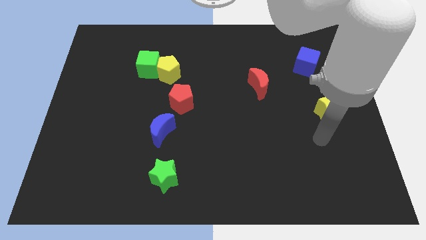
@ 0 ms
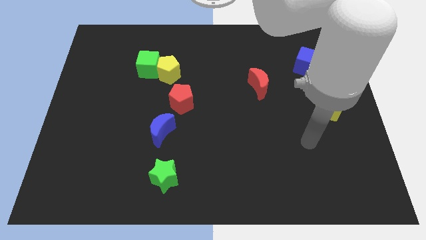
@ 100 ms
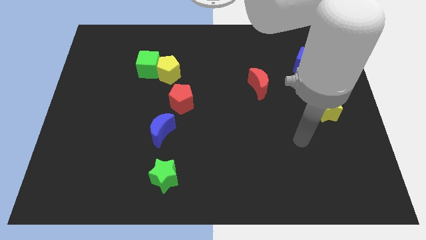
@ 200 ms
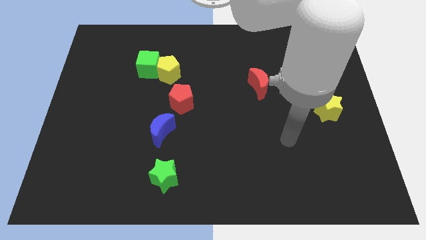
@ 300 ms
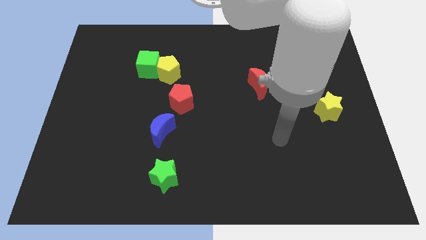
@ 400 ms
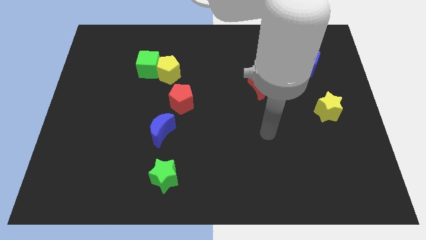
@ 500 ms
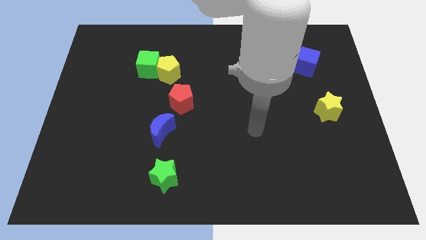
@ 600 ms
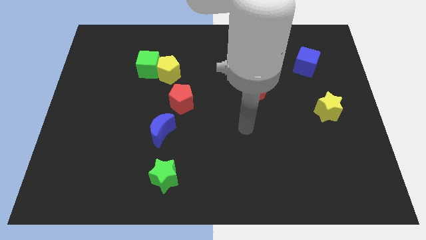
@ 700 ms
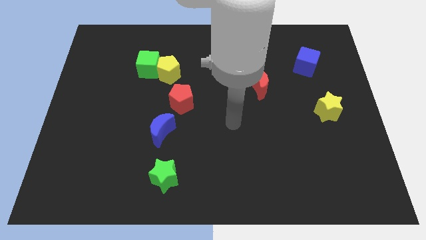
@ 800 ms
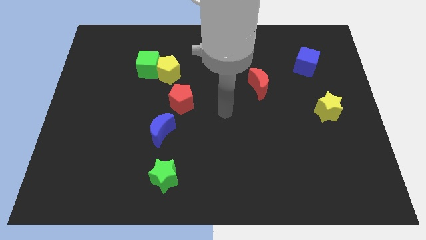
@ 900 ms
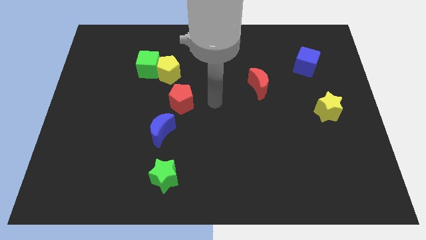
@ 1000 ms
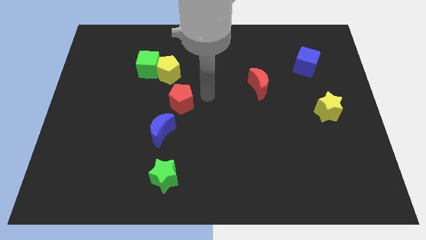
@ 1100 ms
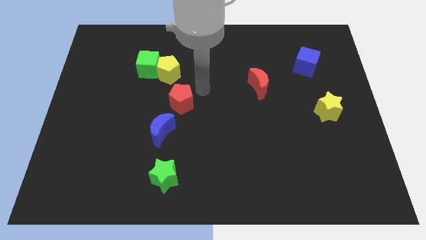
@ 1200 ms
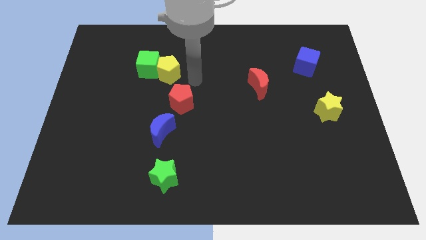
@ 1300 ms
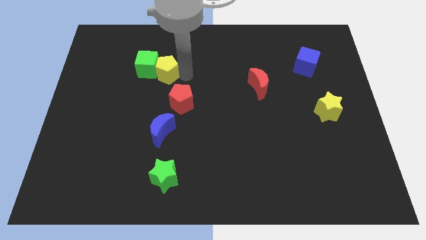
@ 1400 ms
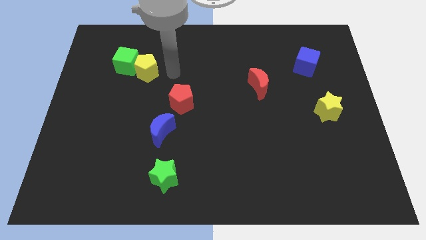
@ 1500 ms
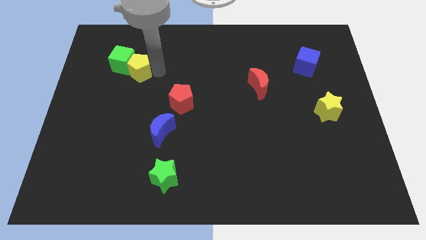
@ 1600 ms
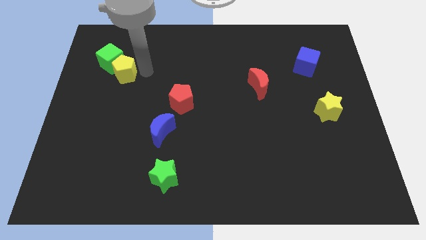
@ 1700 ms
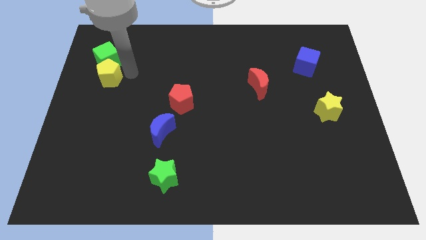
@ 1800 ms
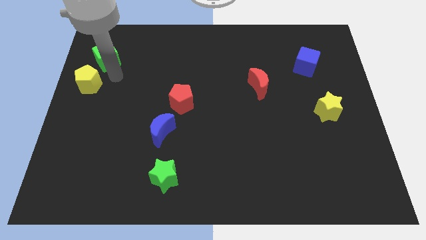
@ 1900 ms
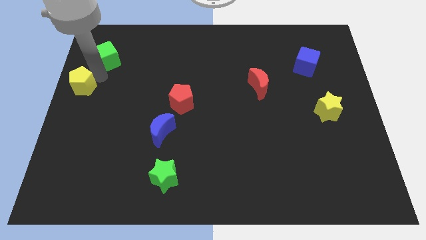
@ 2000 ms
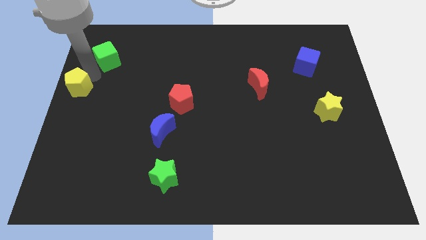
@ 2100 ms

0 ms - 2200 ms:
pull the green cube apart from the yellow pentagon

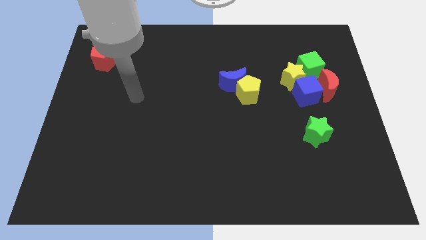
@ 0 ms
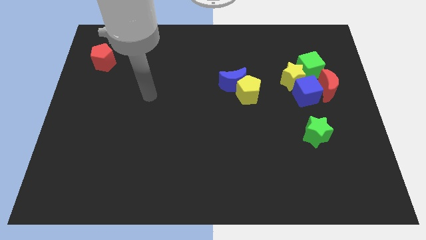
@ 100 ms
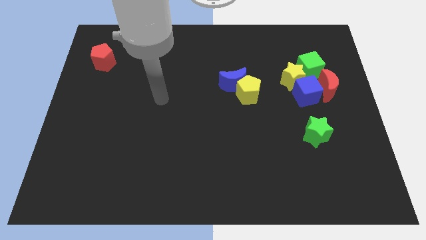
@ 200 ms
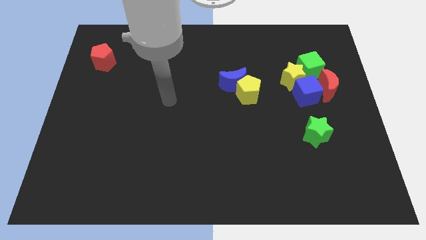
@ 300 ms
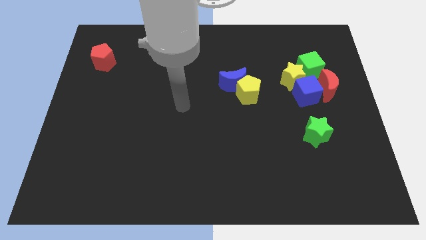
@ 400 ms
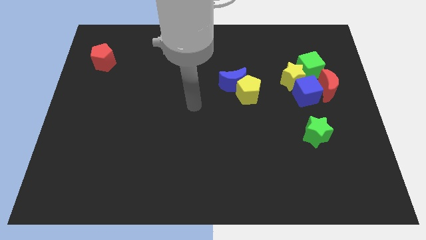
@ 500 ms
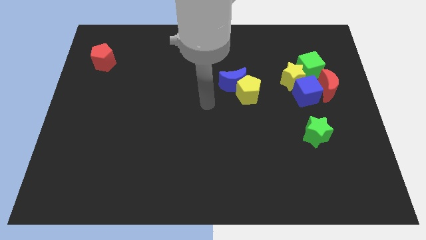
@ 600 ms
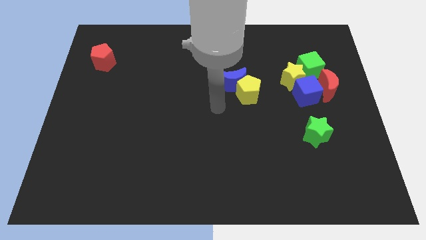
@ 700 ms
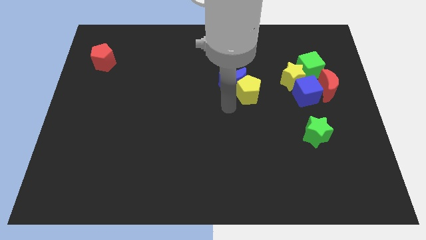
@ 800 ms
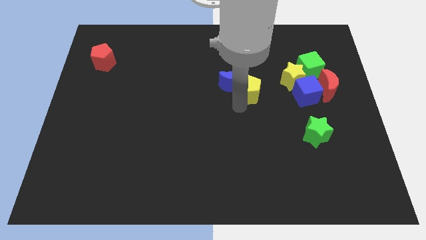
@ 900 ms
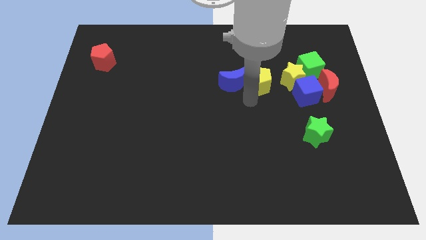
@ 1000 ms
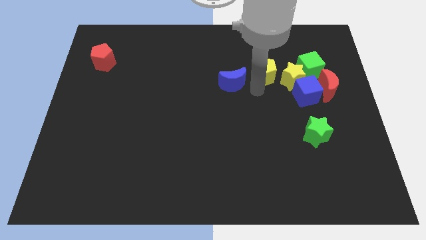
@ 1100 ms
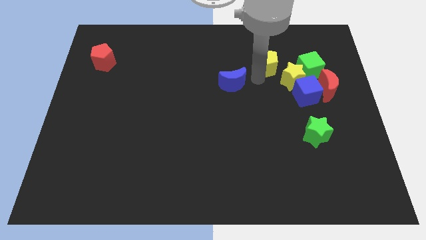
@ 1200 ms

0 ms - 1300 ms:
pull the blue moon apart from the yellow pentagon

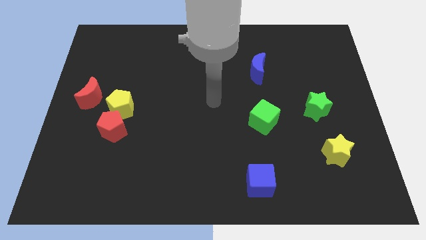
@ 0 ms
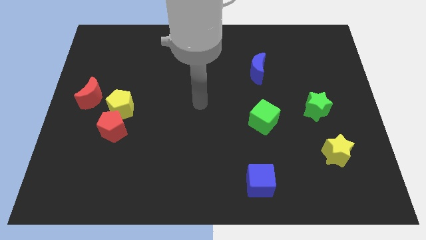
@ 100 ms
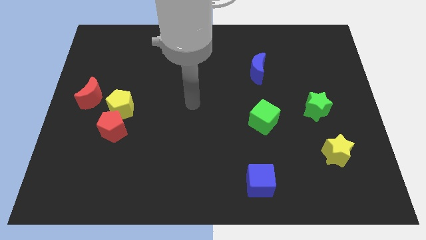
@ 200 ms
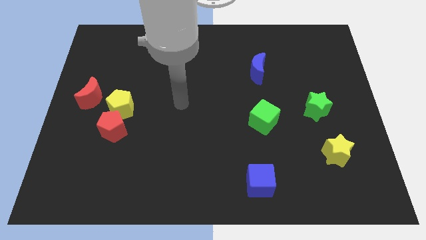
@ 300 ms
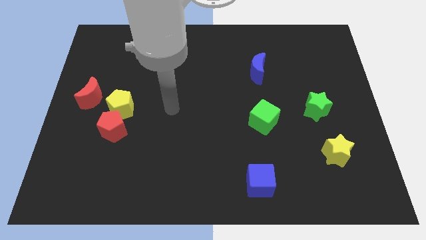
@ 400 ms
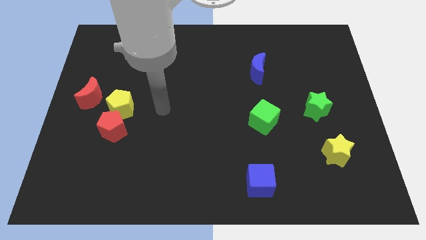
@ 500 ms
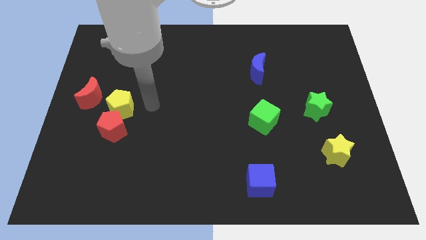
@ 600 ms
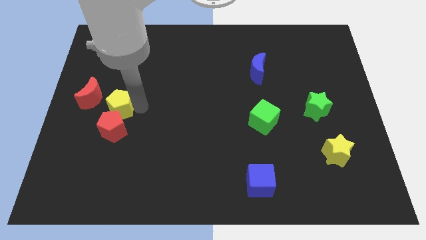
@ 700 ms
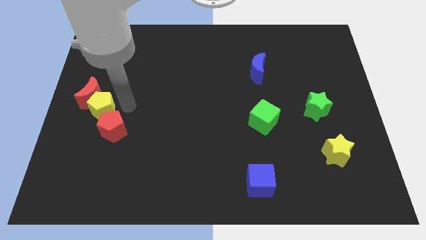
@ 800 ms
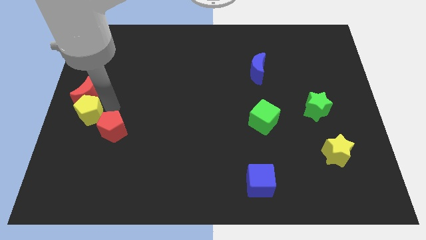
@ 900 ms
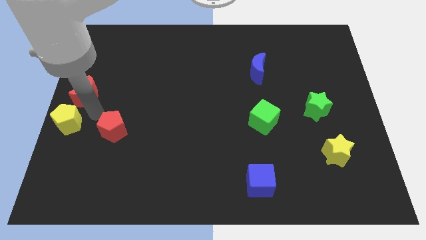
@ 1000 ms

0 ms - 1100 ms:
pull the red pentagon apart from the yellow pentagon

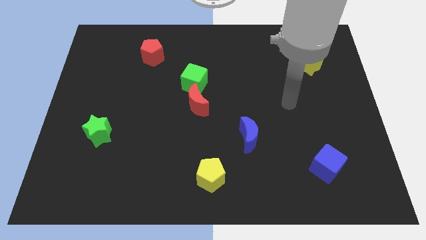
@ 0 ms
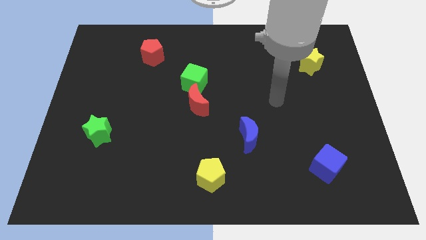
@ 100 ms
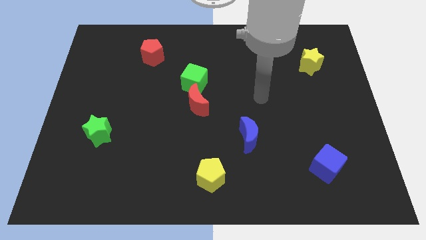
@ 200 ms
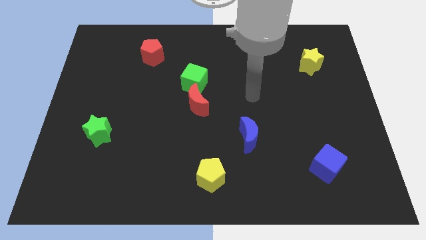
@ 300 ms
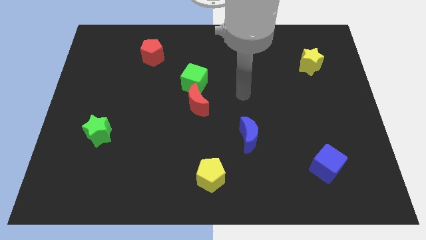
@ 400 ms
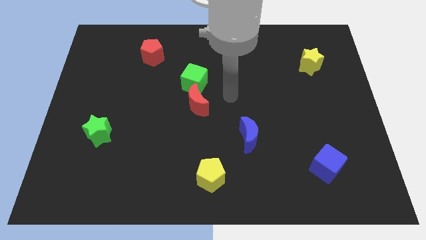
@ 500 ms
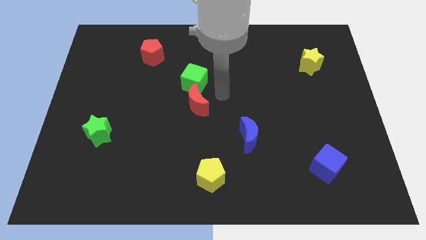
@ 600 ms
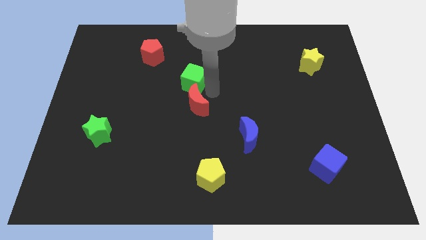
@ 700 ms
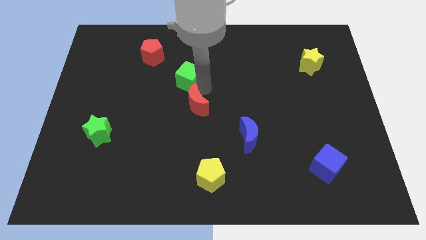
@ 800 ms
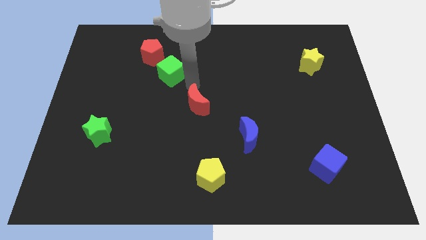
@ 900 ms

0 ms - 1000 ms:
pull the red moon apart from the green cube

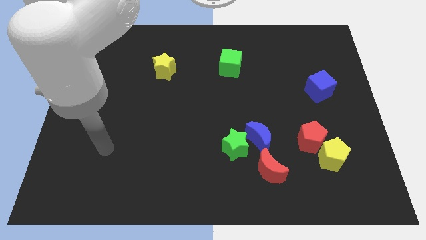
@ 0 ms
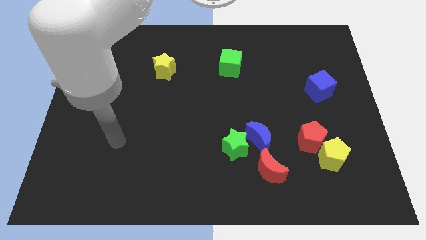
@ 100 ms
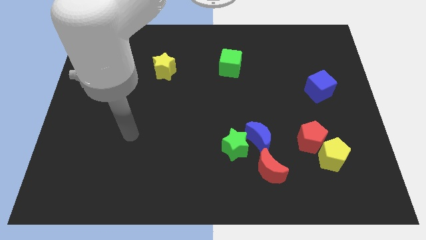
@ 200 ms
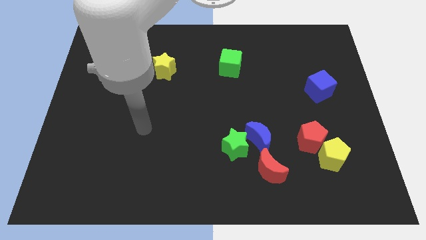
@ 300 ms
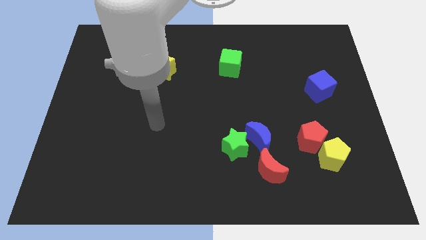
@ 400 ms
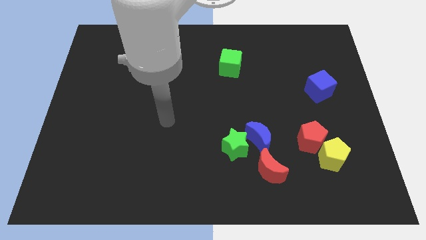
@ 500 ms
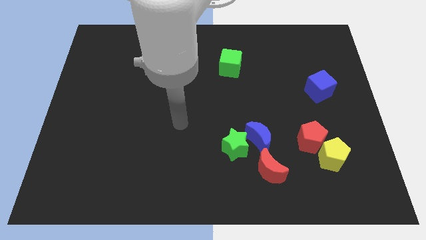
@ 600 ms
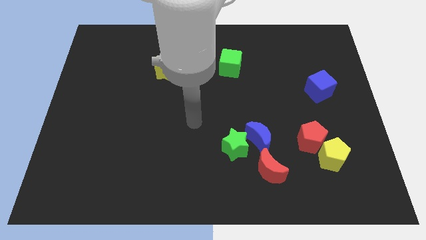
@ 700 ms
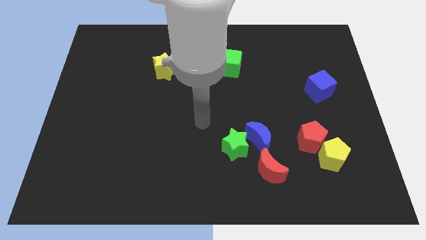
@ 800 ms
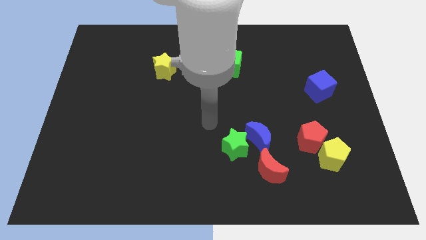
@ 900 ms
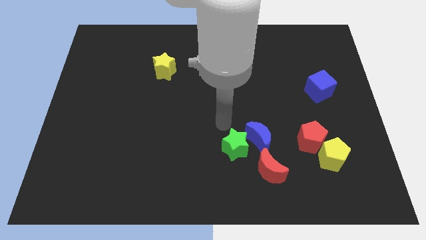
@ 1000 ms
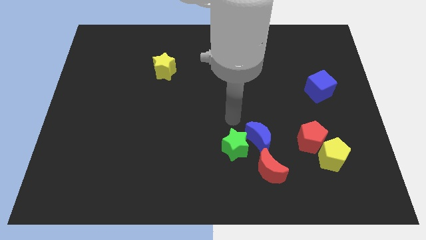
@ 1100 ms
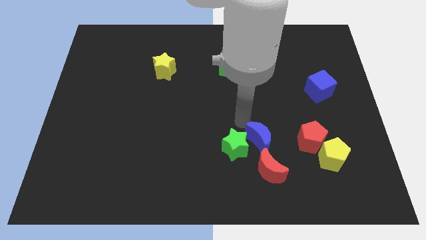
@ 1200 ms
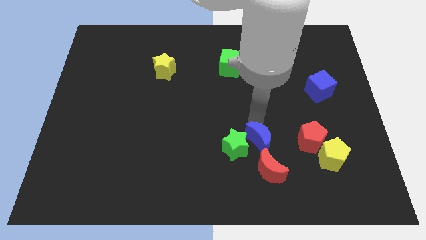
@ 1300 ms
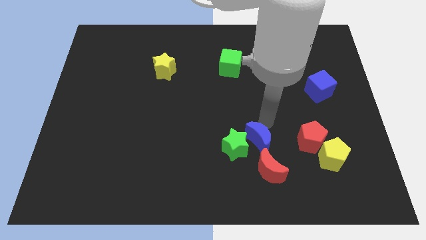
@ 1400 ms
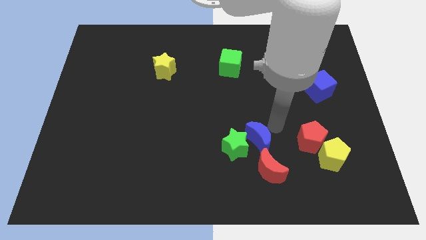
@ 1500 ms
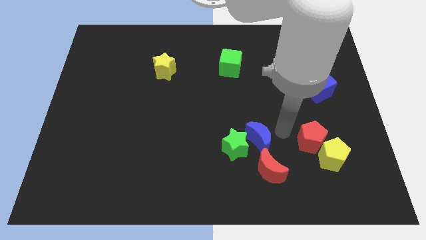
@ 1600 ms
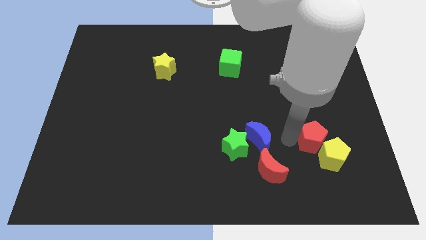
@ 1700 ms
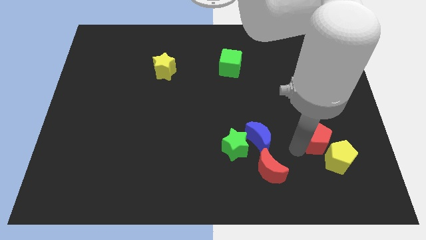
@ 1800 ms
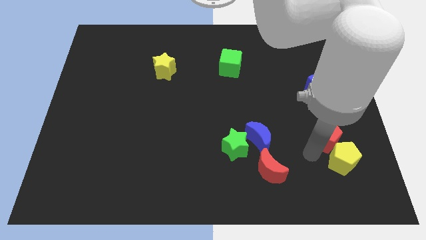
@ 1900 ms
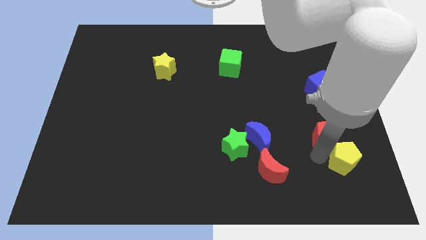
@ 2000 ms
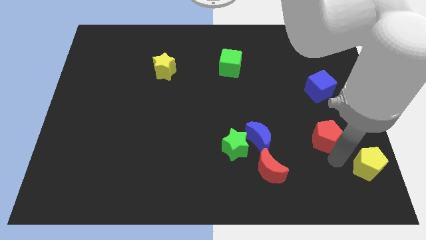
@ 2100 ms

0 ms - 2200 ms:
separate the red pentagon from the yellow pentagon

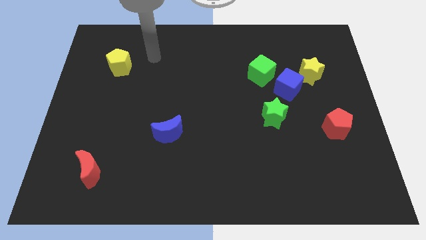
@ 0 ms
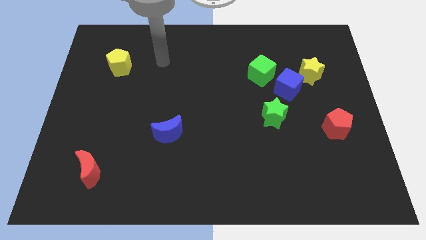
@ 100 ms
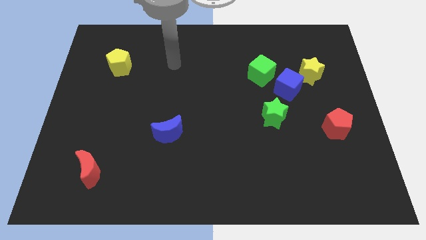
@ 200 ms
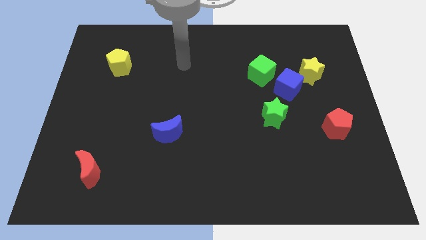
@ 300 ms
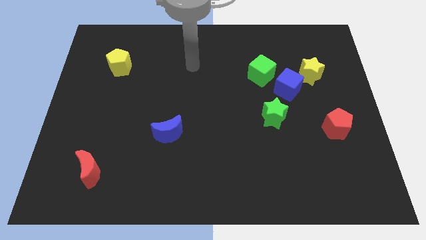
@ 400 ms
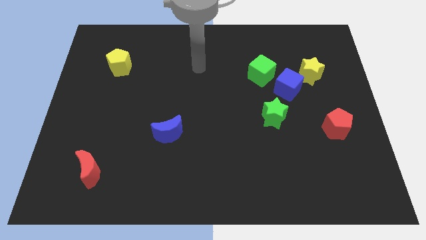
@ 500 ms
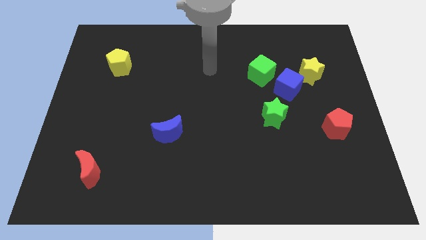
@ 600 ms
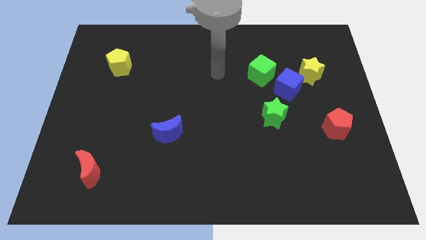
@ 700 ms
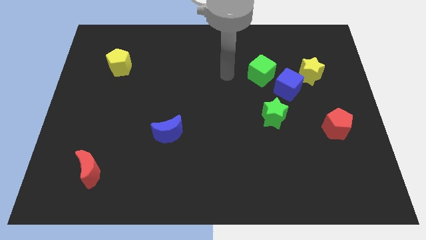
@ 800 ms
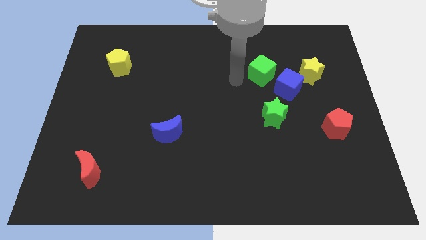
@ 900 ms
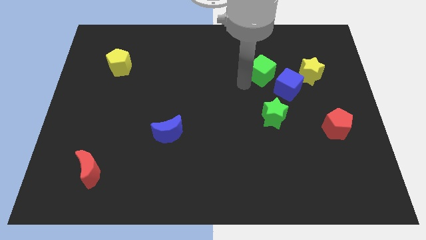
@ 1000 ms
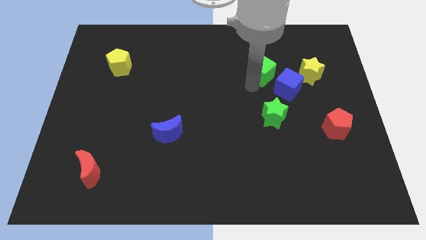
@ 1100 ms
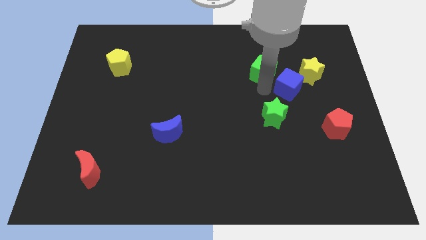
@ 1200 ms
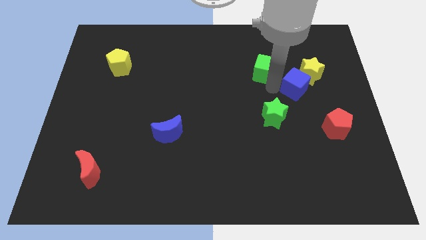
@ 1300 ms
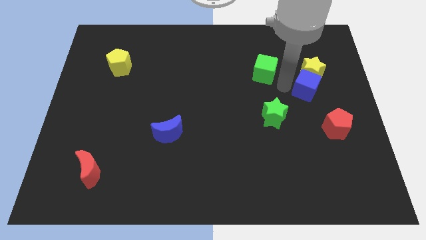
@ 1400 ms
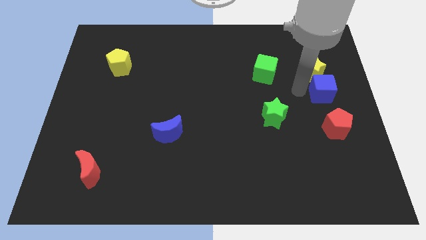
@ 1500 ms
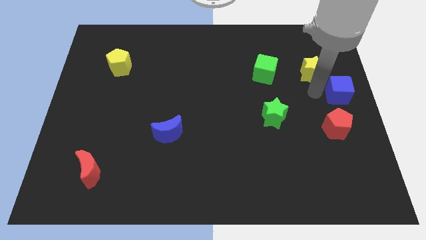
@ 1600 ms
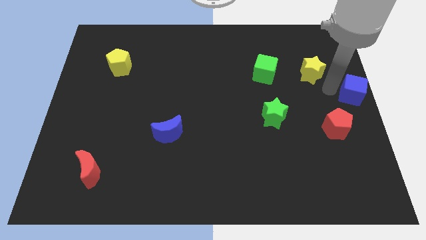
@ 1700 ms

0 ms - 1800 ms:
separate the yellow star from the blue cube
